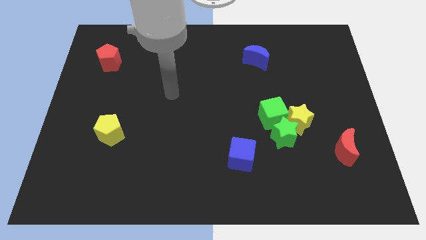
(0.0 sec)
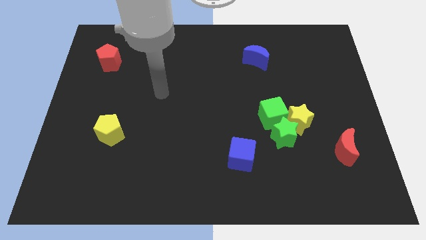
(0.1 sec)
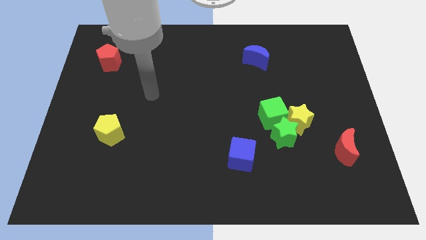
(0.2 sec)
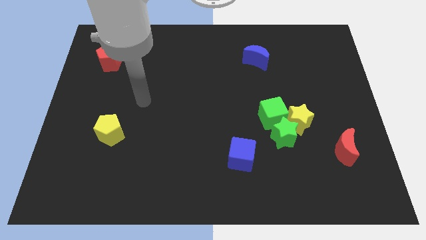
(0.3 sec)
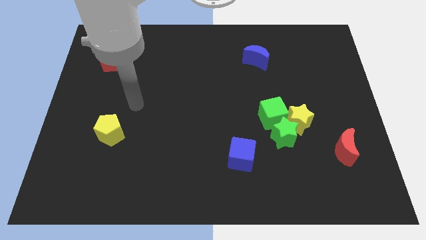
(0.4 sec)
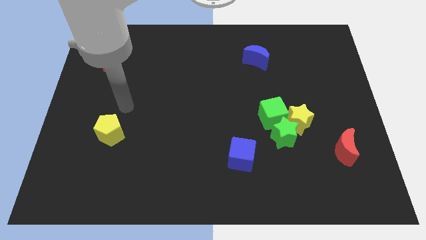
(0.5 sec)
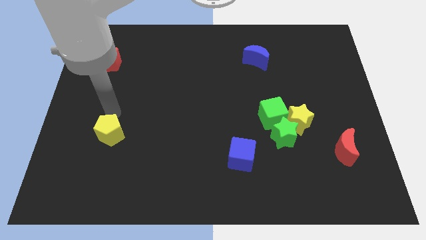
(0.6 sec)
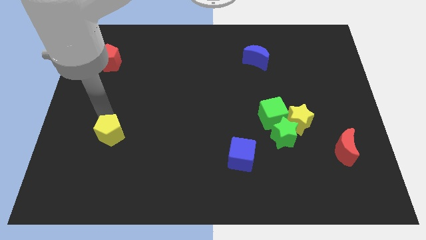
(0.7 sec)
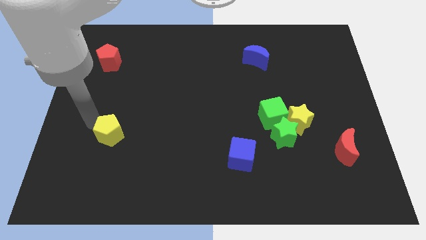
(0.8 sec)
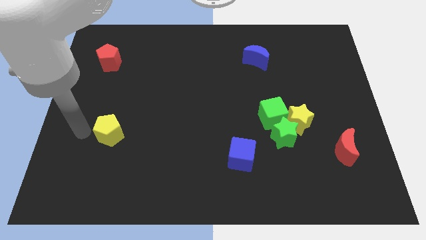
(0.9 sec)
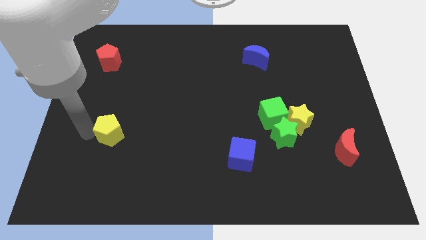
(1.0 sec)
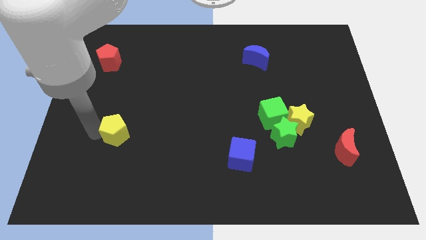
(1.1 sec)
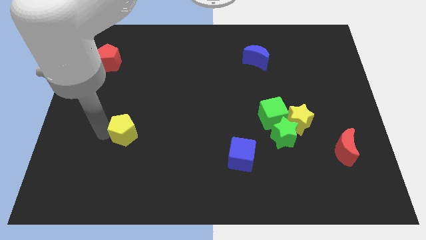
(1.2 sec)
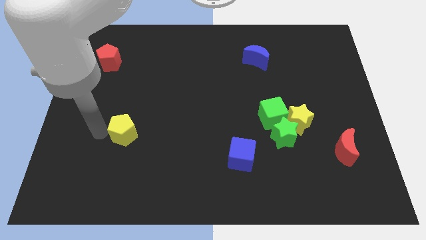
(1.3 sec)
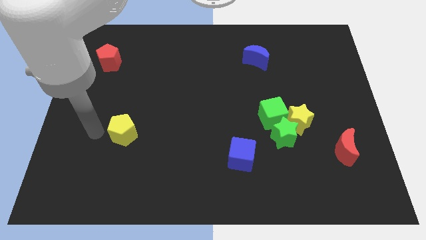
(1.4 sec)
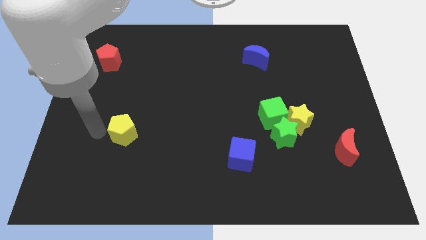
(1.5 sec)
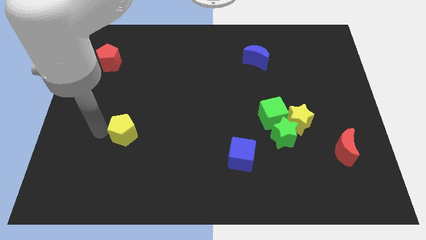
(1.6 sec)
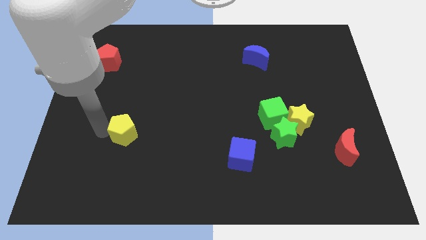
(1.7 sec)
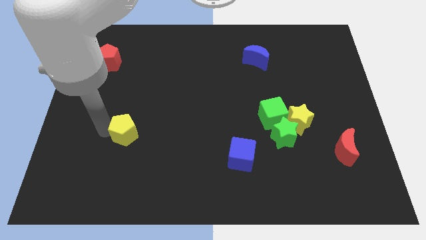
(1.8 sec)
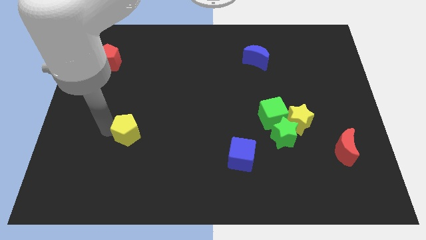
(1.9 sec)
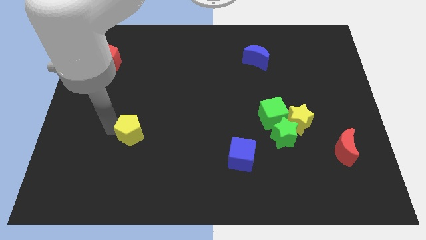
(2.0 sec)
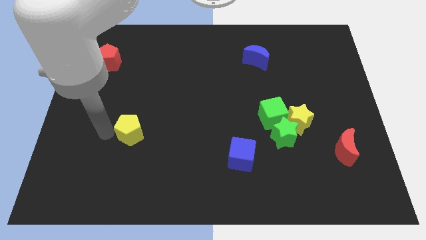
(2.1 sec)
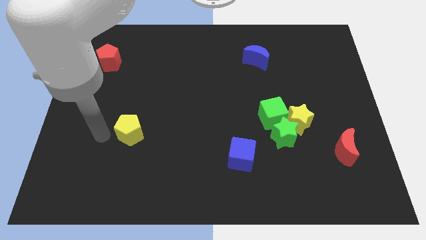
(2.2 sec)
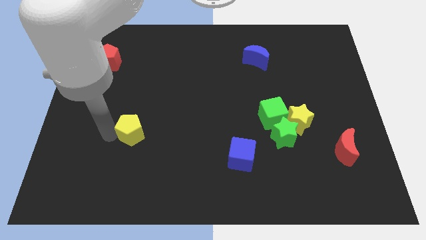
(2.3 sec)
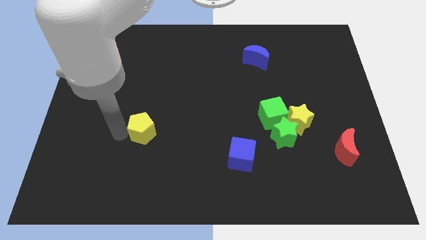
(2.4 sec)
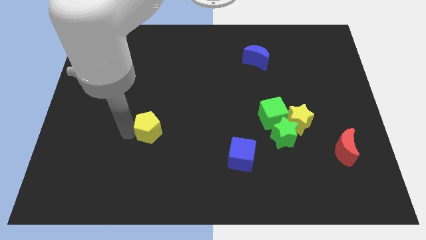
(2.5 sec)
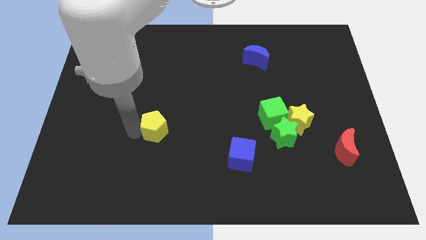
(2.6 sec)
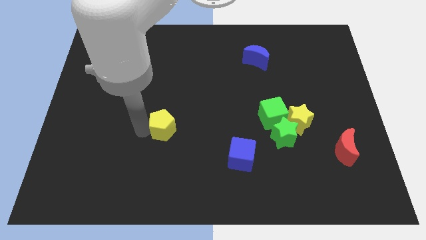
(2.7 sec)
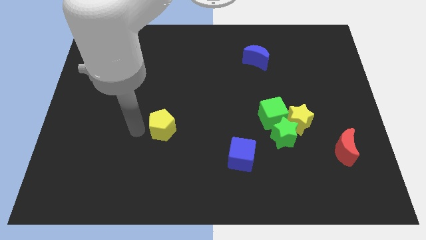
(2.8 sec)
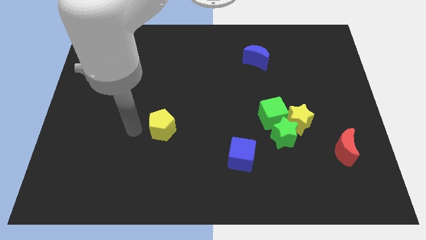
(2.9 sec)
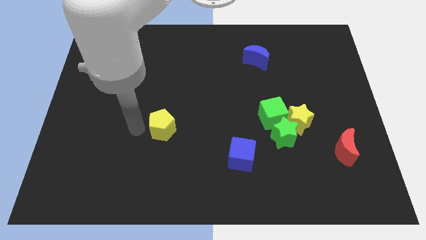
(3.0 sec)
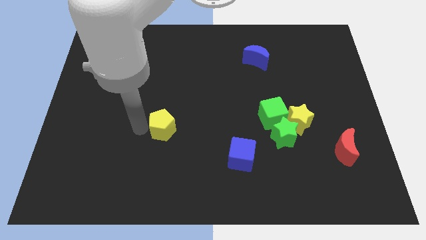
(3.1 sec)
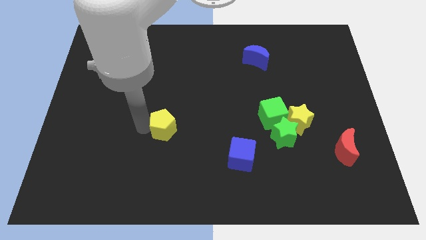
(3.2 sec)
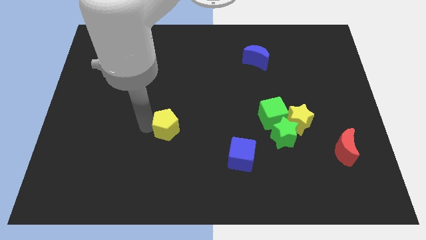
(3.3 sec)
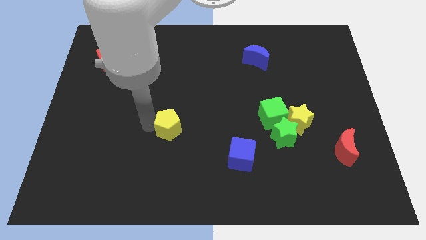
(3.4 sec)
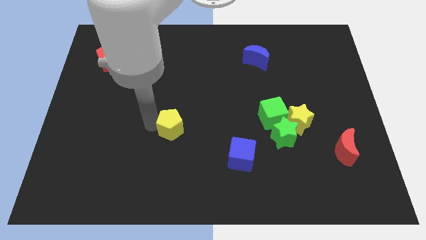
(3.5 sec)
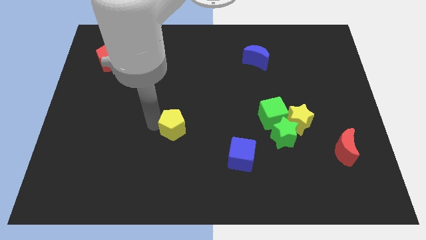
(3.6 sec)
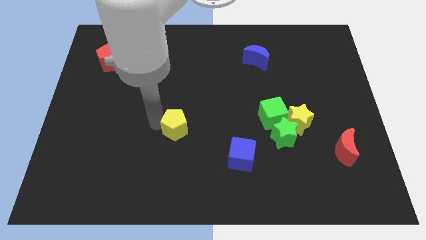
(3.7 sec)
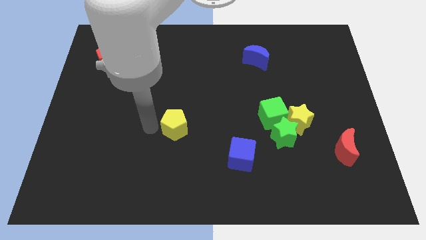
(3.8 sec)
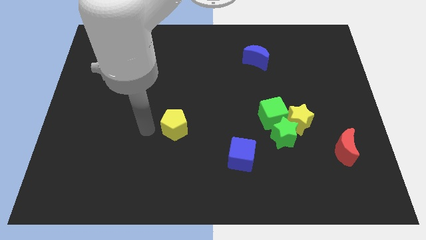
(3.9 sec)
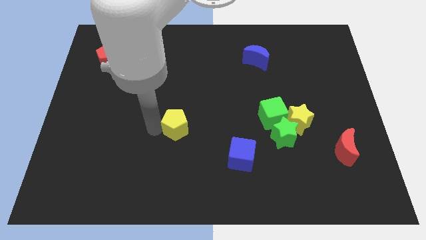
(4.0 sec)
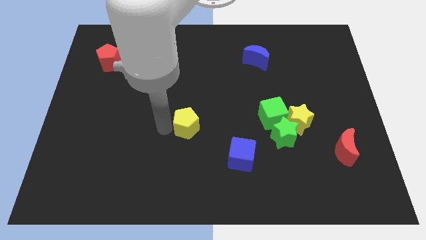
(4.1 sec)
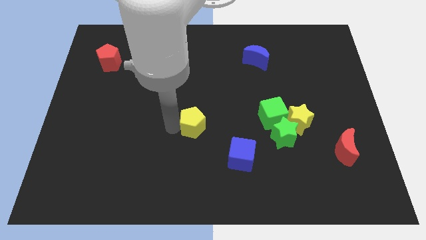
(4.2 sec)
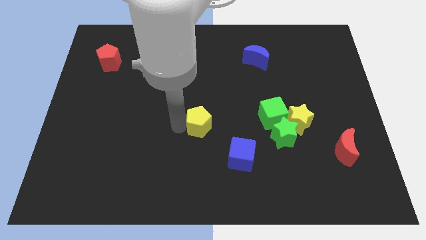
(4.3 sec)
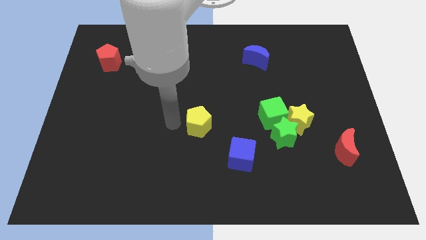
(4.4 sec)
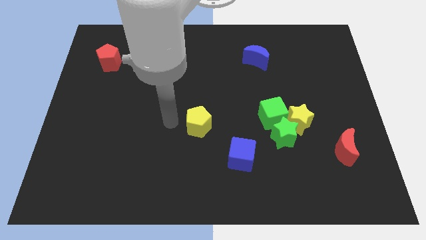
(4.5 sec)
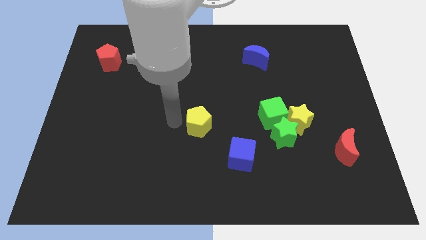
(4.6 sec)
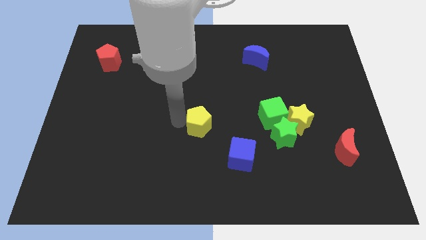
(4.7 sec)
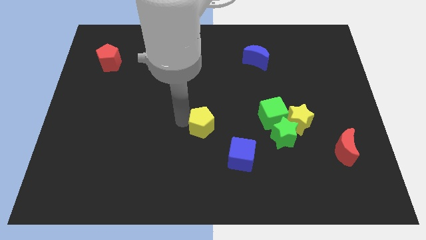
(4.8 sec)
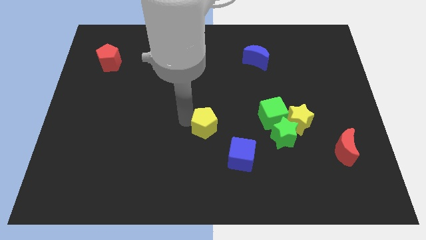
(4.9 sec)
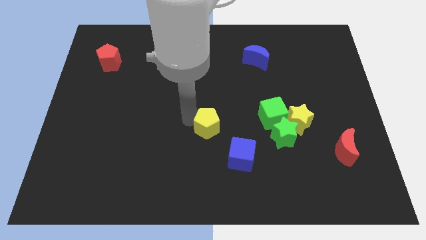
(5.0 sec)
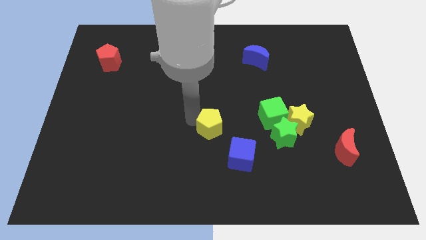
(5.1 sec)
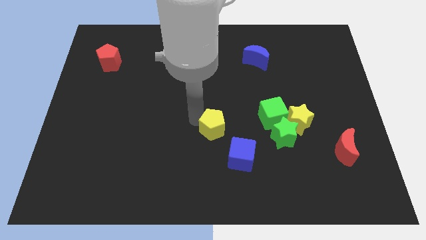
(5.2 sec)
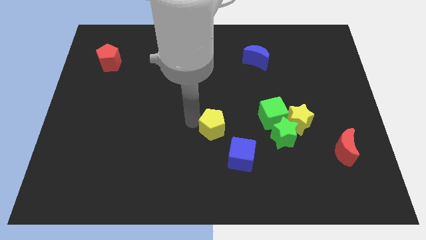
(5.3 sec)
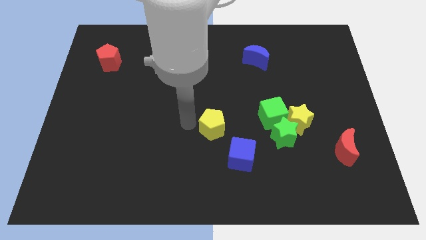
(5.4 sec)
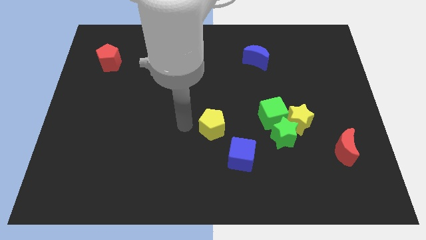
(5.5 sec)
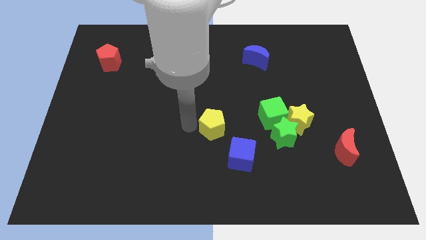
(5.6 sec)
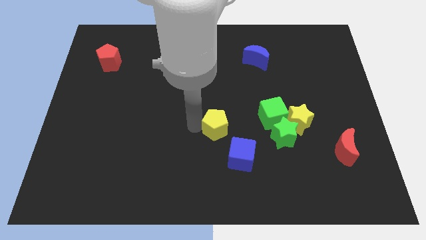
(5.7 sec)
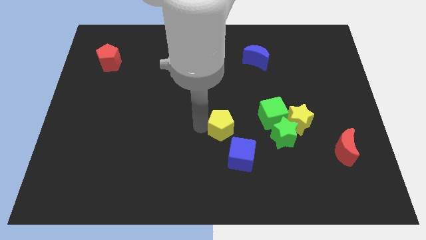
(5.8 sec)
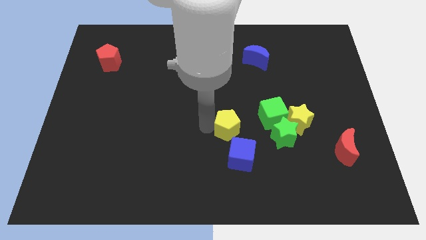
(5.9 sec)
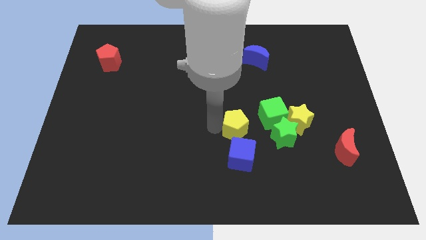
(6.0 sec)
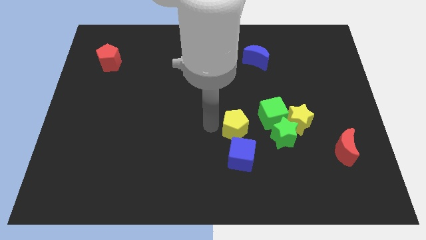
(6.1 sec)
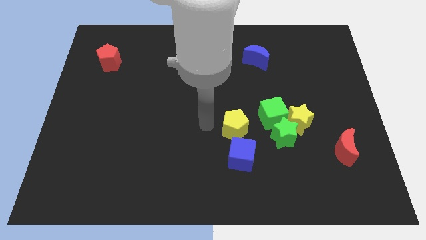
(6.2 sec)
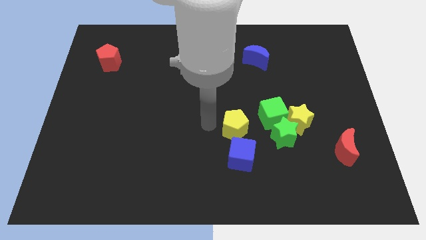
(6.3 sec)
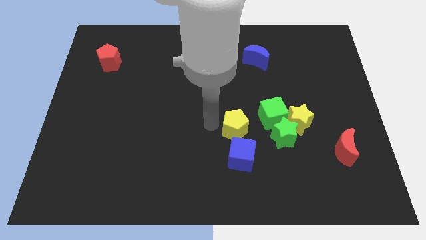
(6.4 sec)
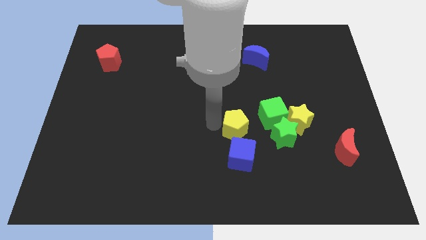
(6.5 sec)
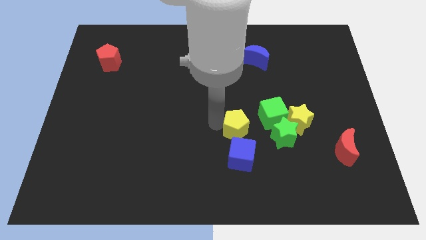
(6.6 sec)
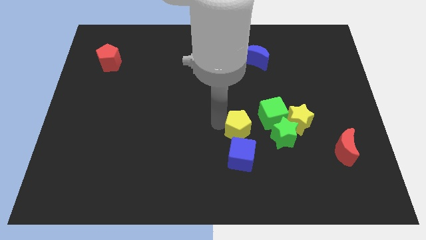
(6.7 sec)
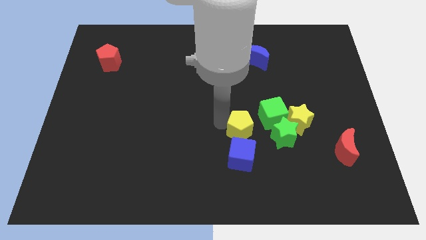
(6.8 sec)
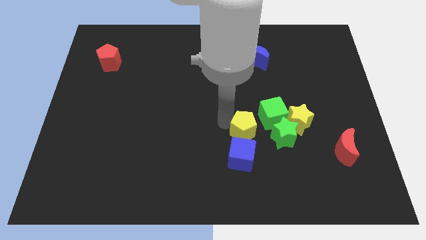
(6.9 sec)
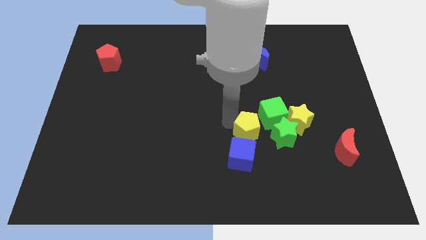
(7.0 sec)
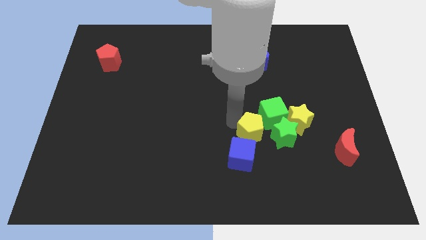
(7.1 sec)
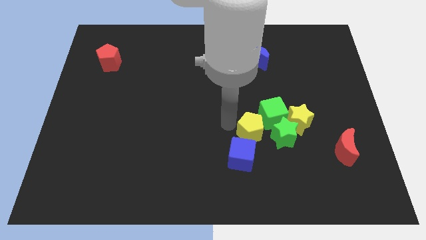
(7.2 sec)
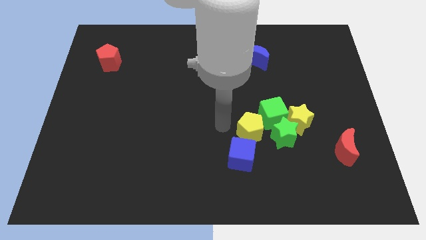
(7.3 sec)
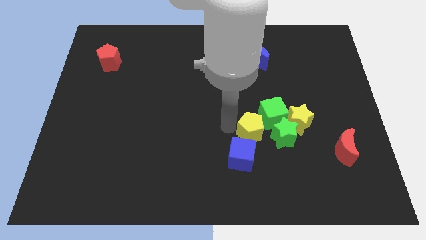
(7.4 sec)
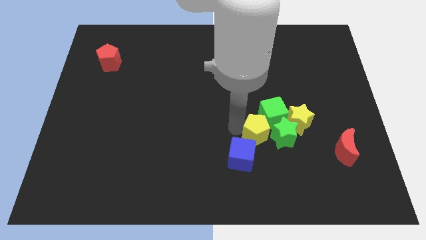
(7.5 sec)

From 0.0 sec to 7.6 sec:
move the yellow pentagon next to the green star
